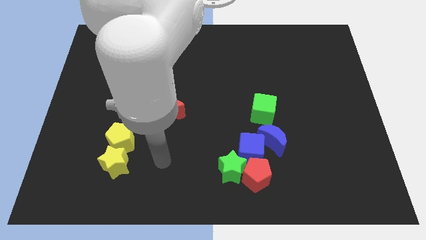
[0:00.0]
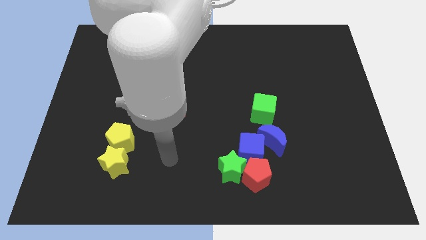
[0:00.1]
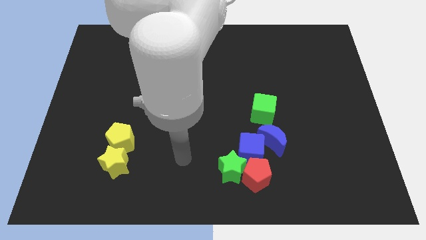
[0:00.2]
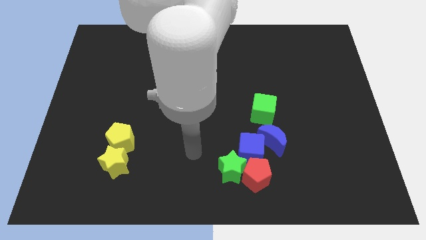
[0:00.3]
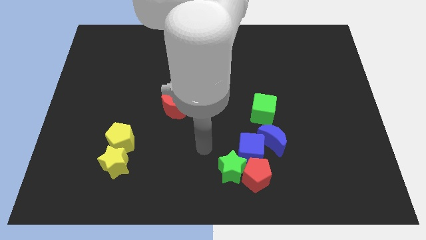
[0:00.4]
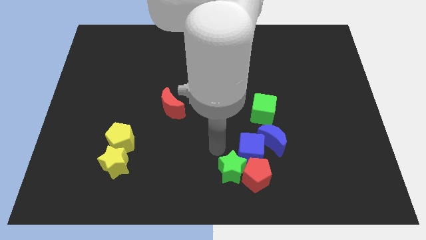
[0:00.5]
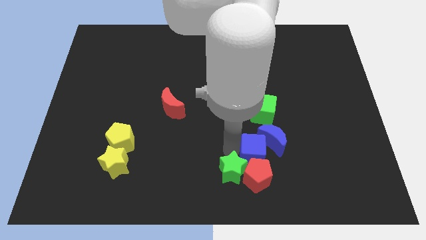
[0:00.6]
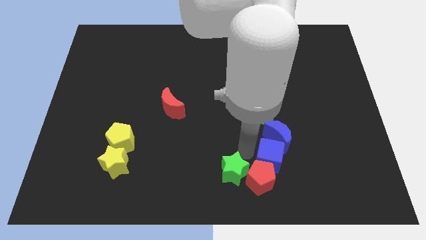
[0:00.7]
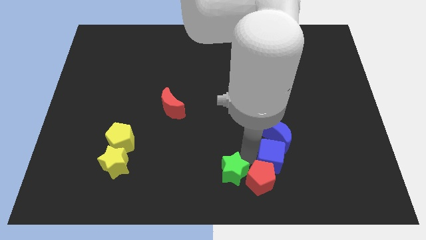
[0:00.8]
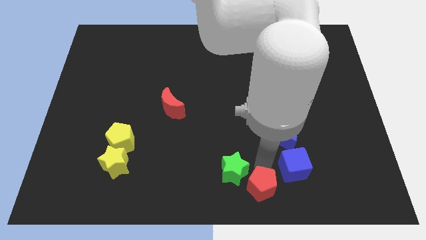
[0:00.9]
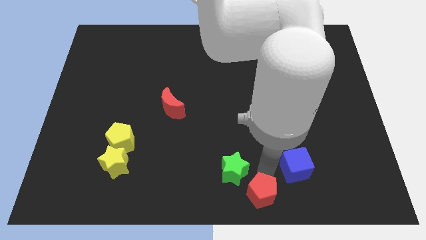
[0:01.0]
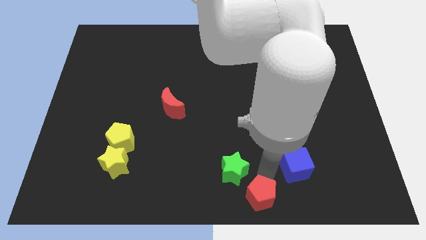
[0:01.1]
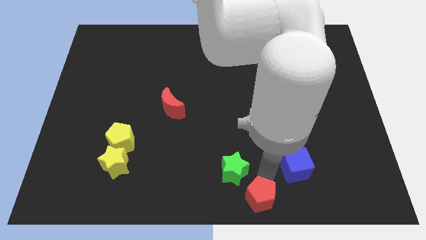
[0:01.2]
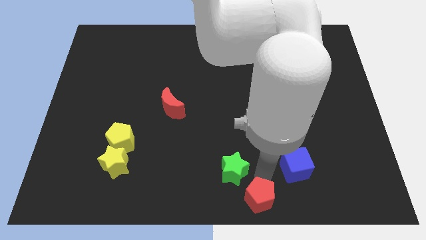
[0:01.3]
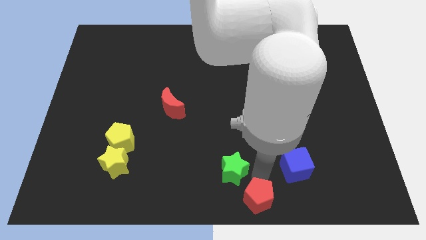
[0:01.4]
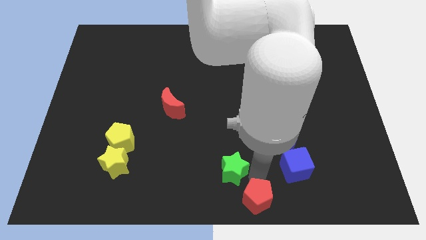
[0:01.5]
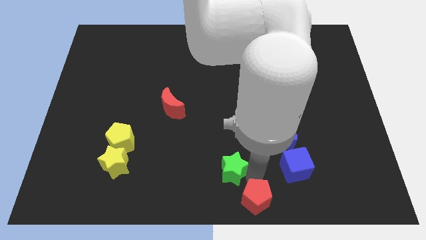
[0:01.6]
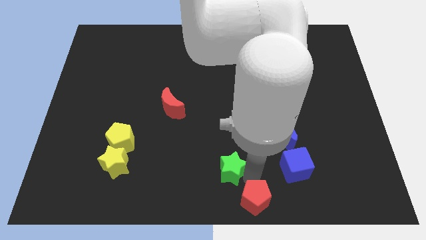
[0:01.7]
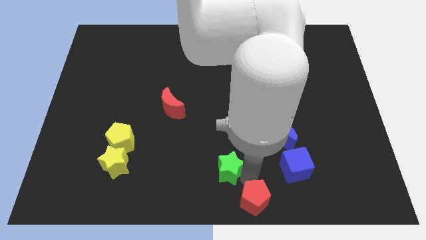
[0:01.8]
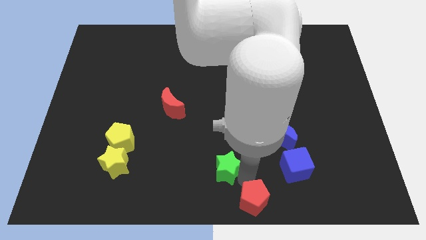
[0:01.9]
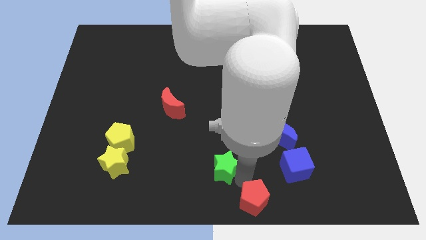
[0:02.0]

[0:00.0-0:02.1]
move the green star away from the red pentagon and blue cube

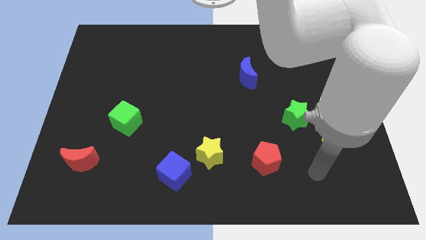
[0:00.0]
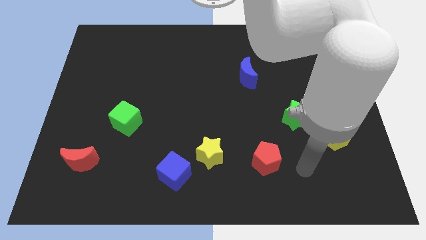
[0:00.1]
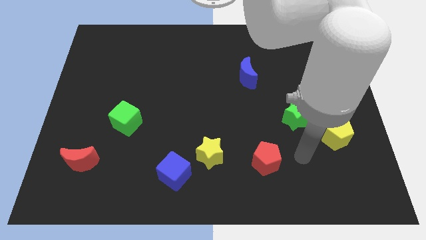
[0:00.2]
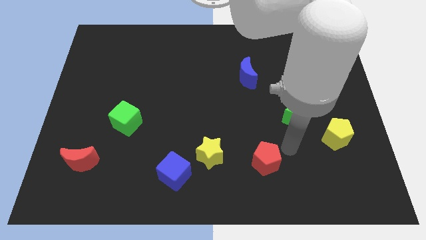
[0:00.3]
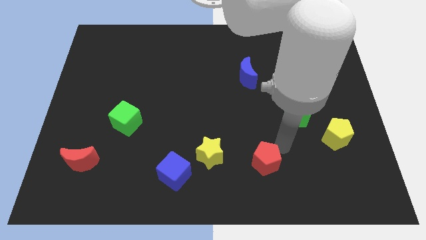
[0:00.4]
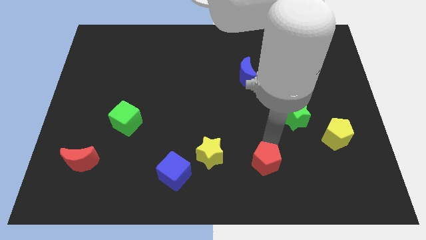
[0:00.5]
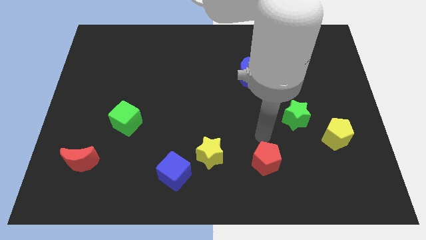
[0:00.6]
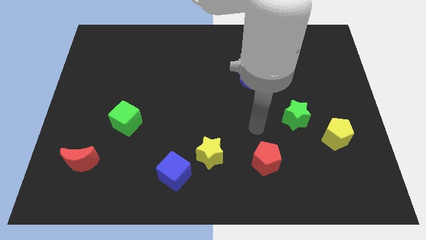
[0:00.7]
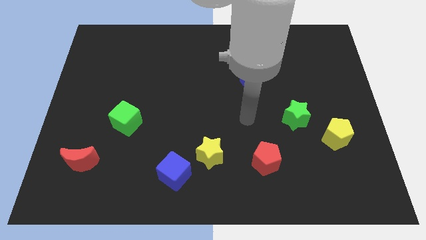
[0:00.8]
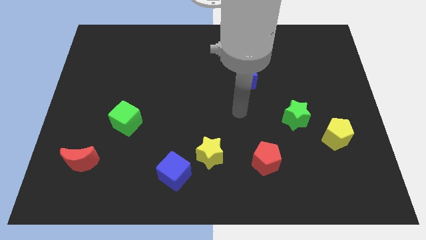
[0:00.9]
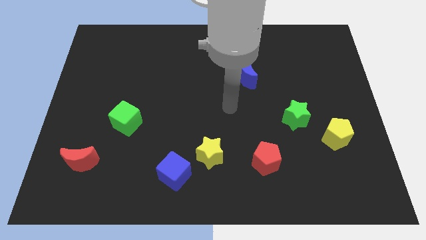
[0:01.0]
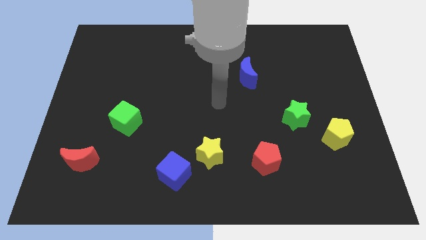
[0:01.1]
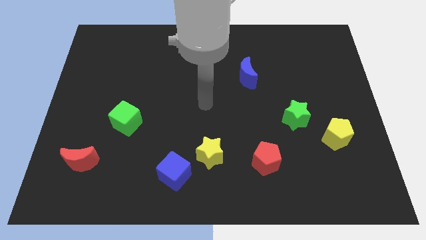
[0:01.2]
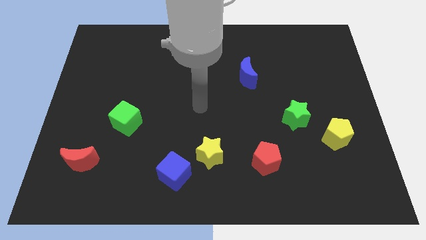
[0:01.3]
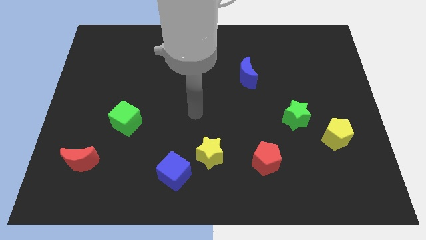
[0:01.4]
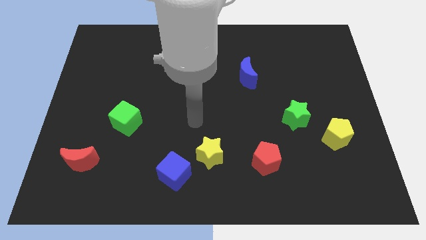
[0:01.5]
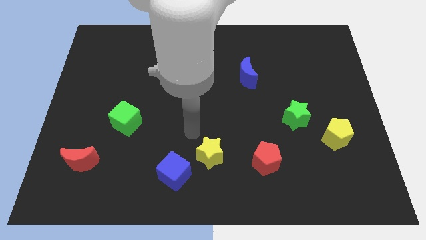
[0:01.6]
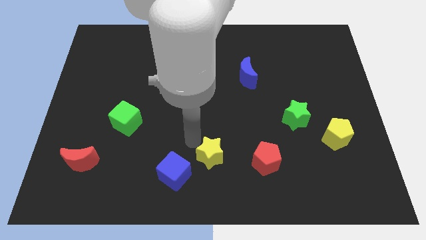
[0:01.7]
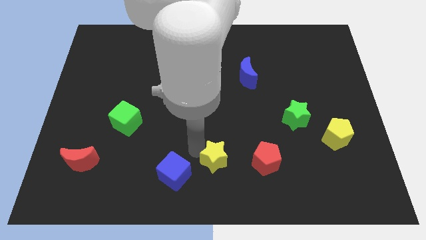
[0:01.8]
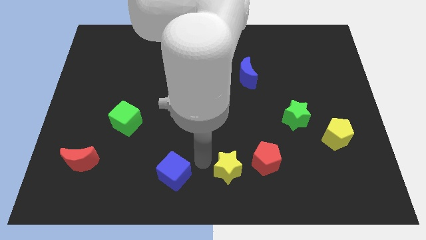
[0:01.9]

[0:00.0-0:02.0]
move the blue cube away from the yellow star

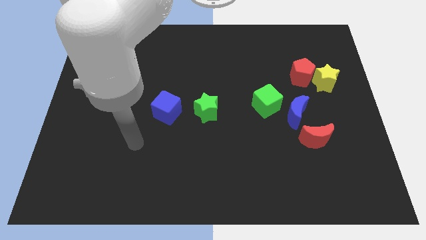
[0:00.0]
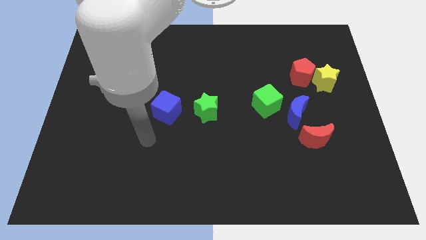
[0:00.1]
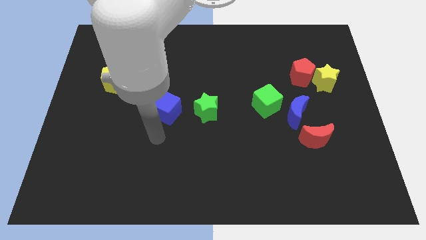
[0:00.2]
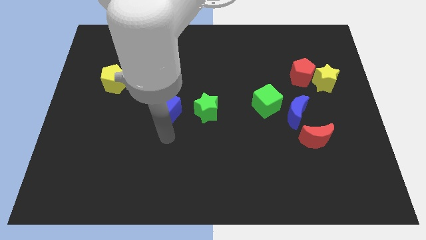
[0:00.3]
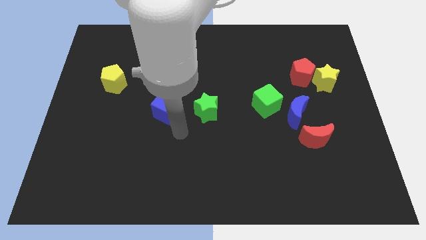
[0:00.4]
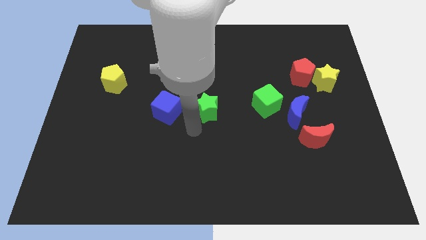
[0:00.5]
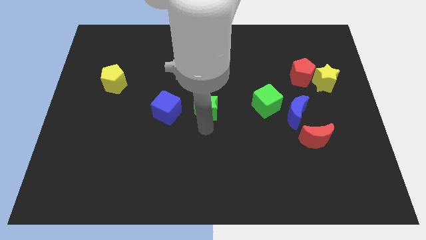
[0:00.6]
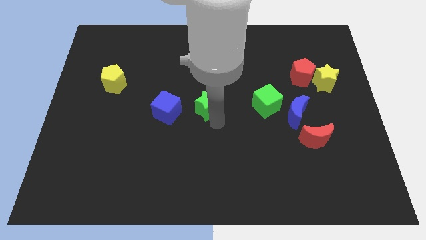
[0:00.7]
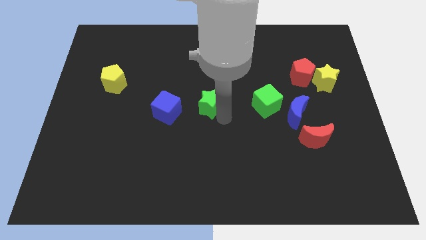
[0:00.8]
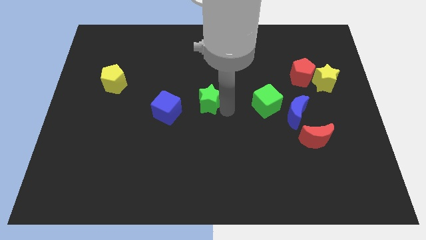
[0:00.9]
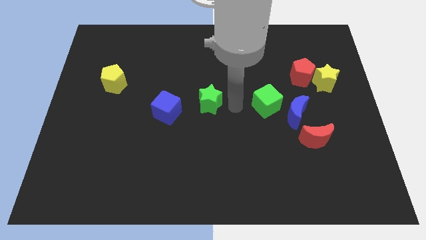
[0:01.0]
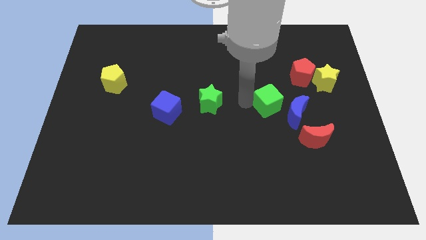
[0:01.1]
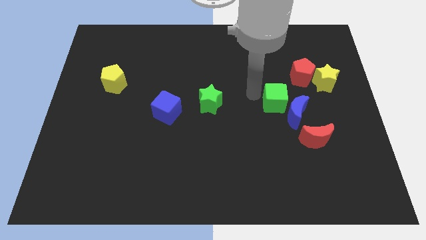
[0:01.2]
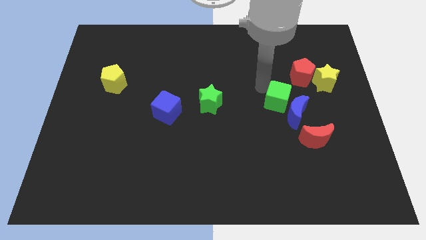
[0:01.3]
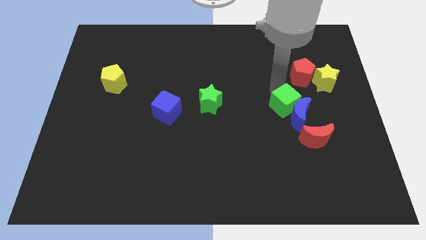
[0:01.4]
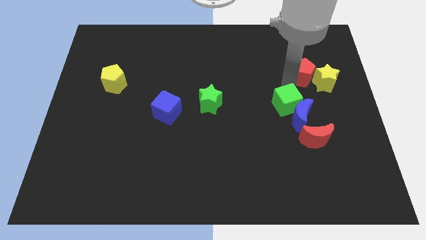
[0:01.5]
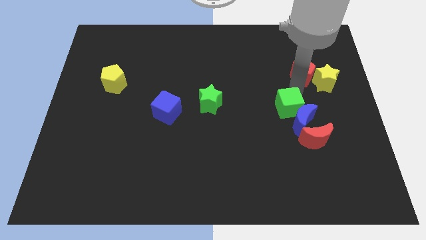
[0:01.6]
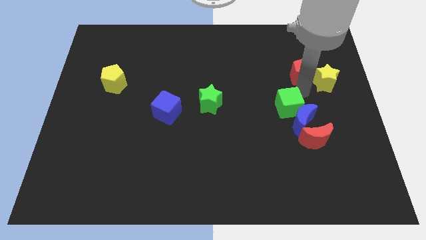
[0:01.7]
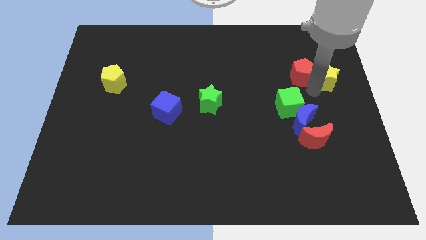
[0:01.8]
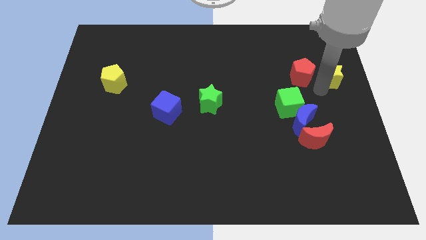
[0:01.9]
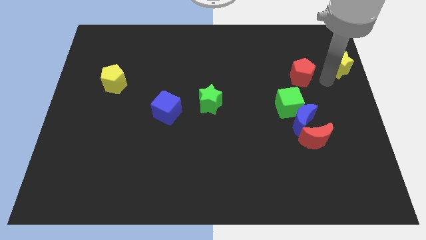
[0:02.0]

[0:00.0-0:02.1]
move the red pentagon away from the yellow star

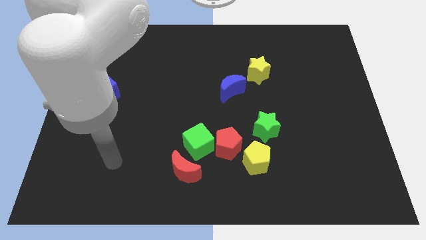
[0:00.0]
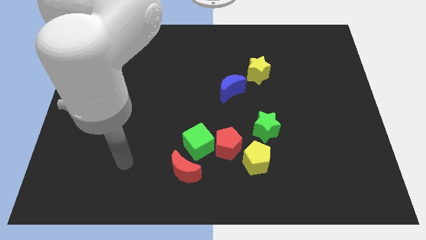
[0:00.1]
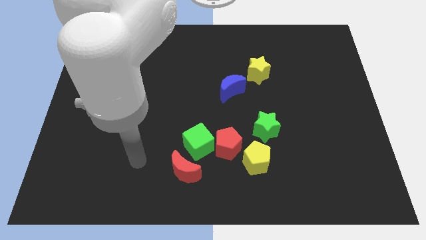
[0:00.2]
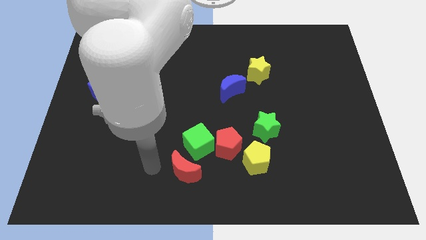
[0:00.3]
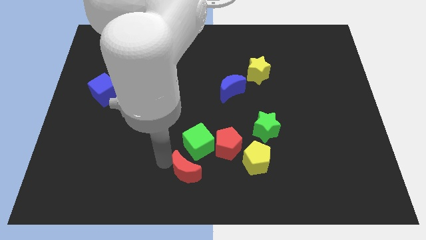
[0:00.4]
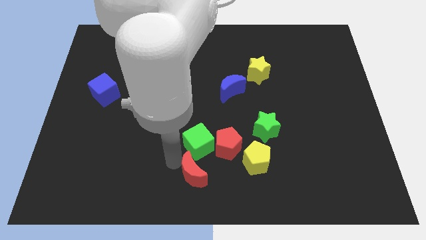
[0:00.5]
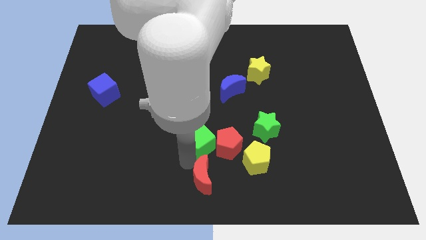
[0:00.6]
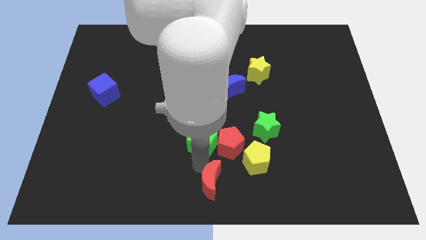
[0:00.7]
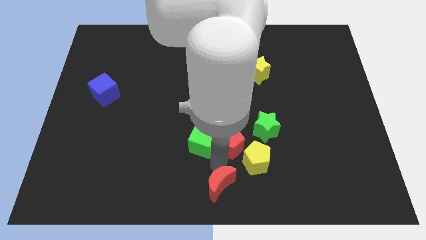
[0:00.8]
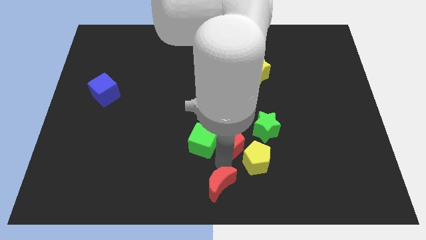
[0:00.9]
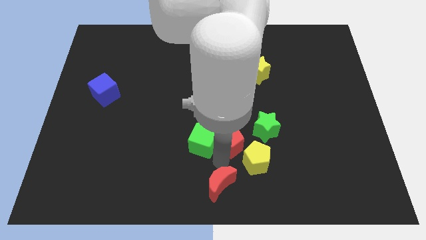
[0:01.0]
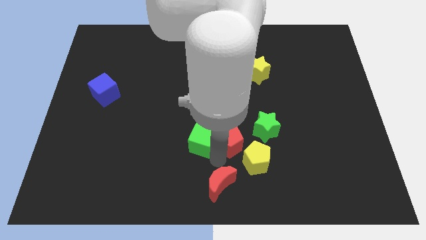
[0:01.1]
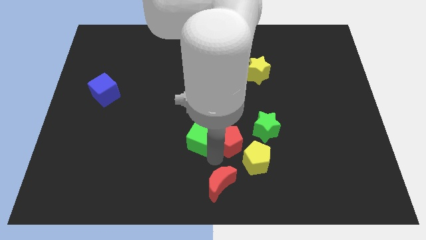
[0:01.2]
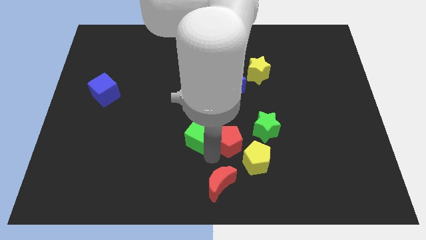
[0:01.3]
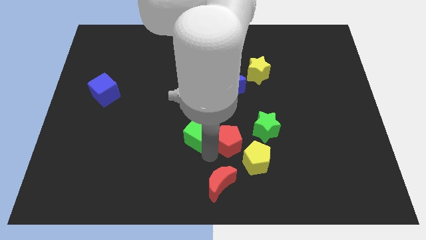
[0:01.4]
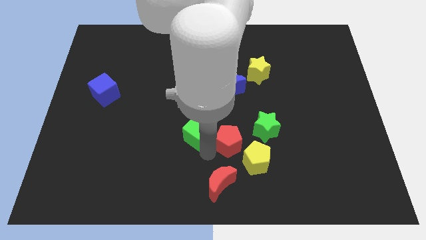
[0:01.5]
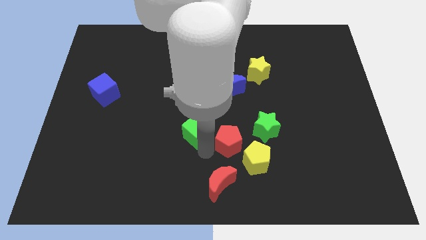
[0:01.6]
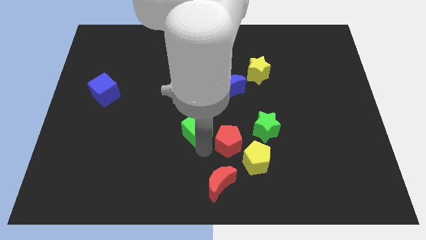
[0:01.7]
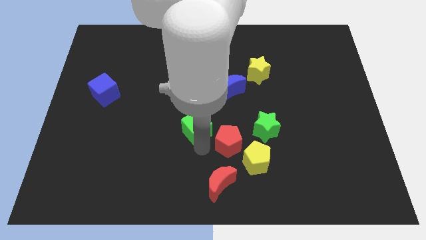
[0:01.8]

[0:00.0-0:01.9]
move the green cube away from the red pentagon and red moon

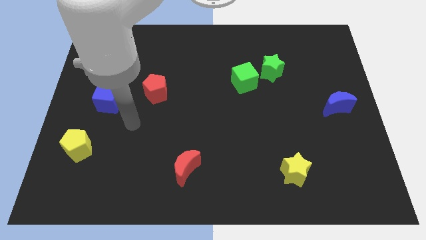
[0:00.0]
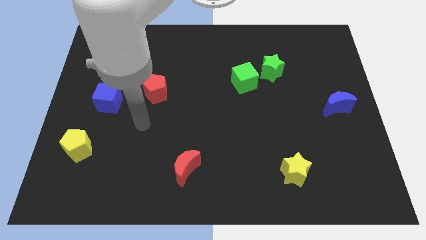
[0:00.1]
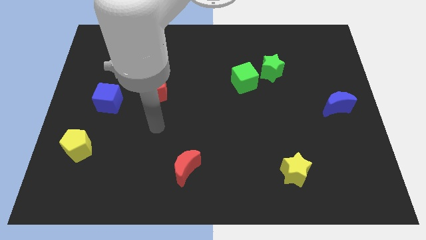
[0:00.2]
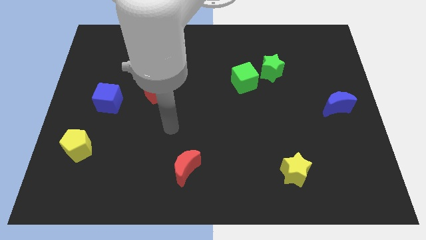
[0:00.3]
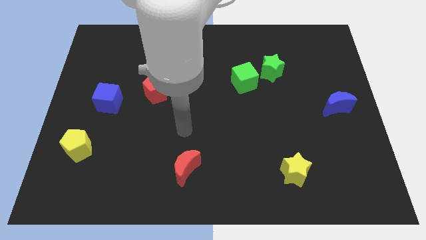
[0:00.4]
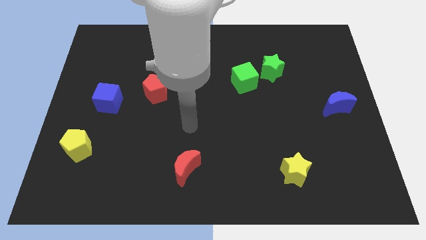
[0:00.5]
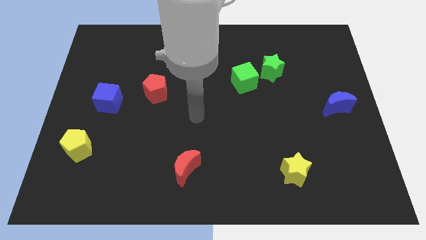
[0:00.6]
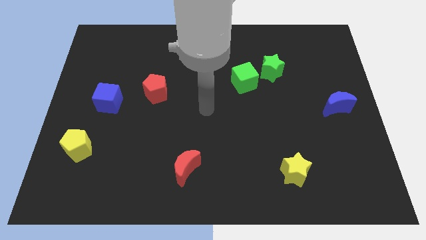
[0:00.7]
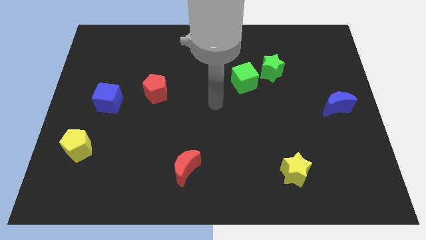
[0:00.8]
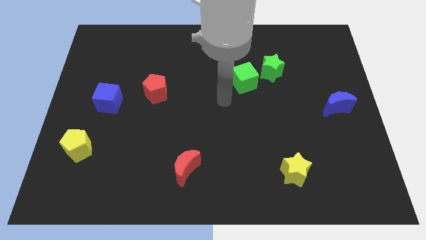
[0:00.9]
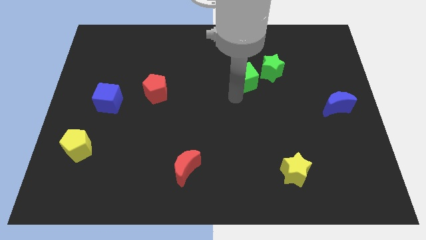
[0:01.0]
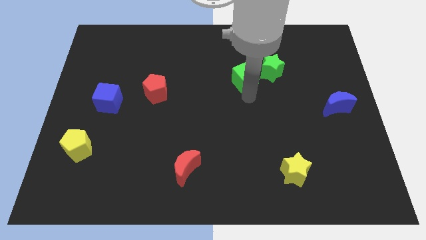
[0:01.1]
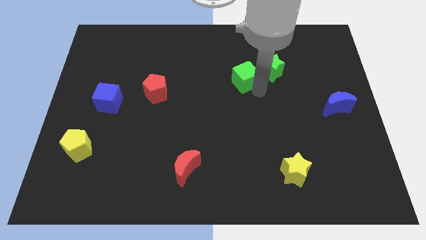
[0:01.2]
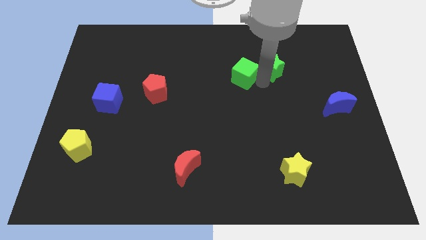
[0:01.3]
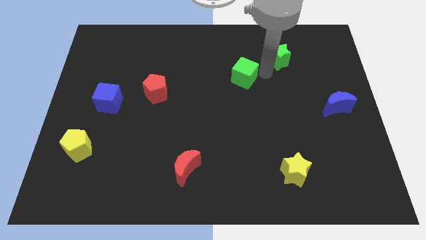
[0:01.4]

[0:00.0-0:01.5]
move the green cube away from the green star
